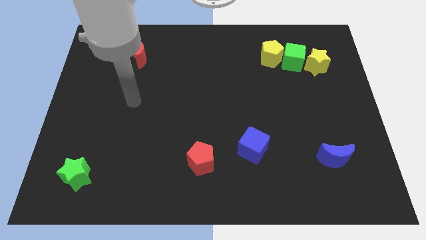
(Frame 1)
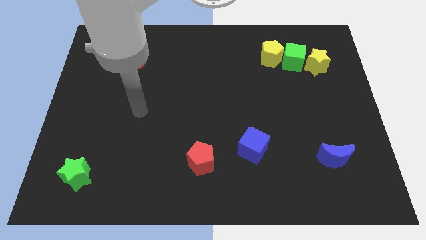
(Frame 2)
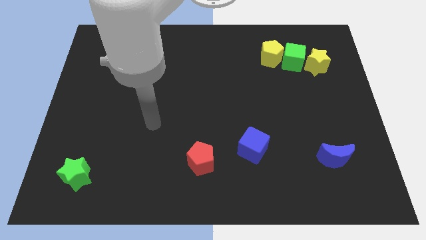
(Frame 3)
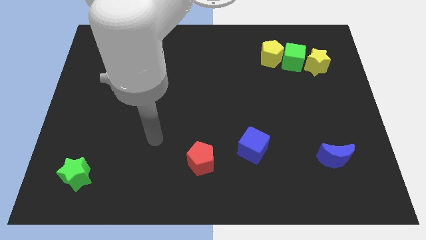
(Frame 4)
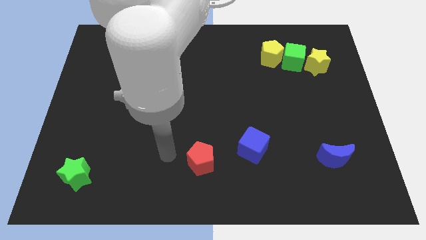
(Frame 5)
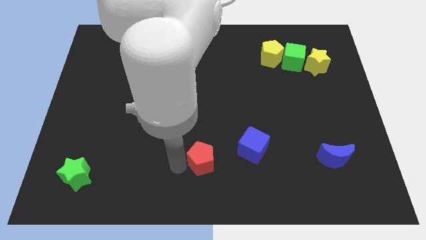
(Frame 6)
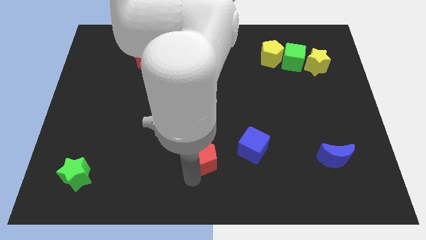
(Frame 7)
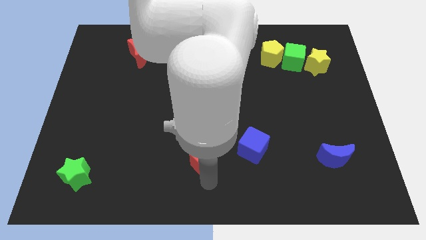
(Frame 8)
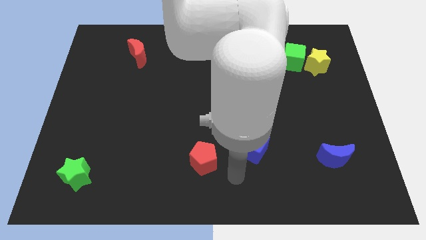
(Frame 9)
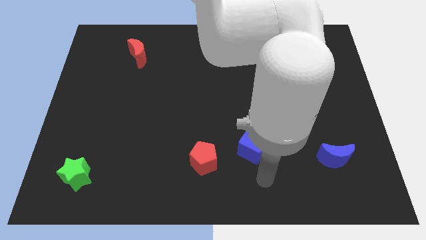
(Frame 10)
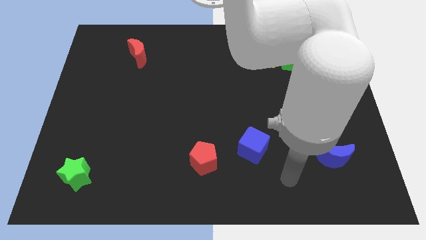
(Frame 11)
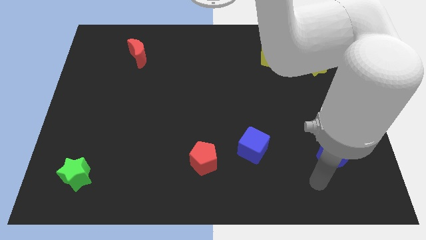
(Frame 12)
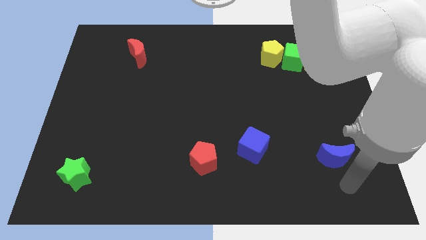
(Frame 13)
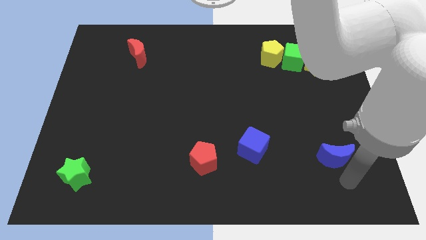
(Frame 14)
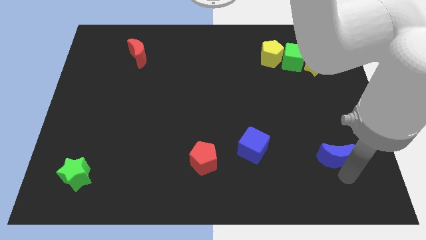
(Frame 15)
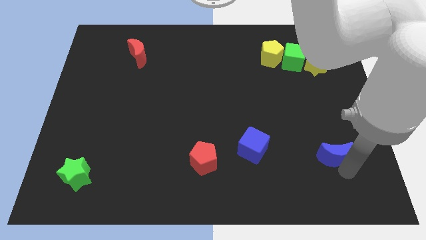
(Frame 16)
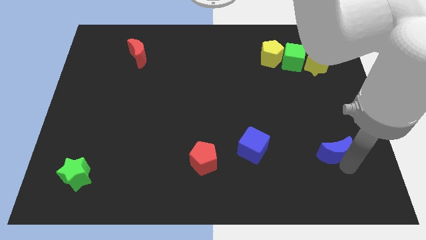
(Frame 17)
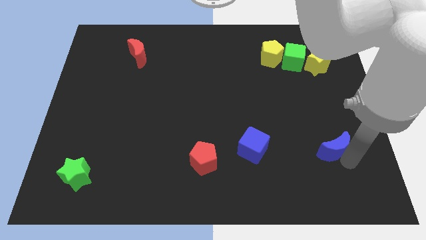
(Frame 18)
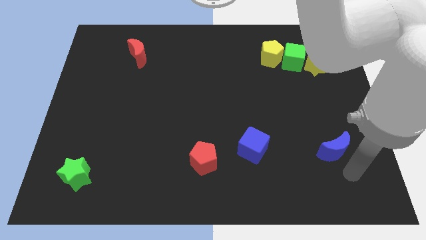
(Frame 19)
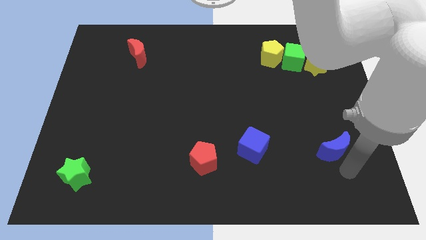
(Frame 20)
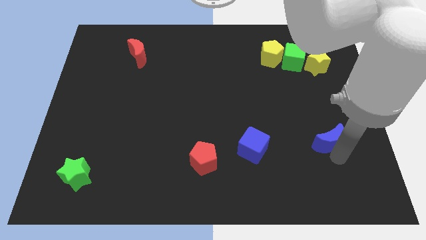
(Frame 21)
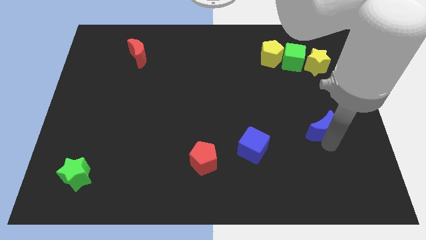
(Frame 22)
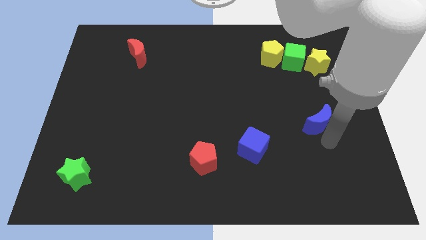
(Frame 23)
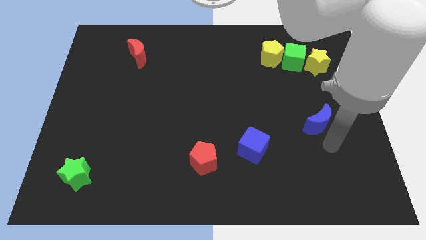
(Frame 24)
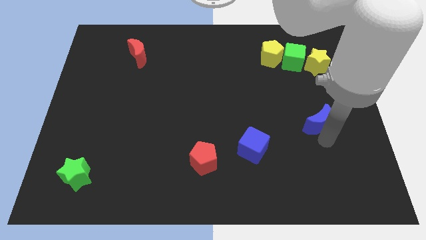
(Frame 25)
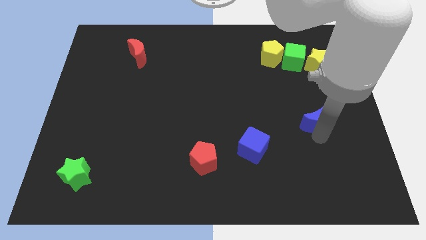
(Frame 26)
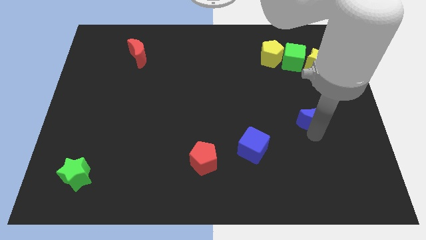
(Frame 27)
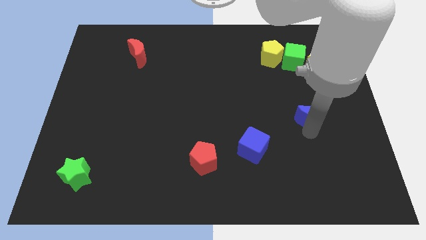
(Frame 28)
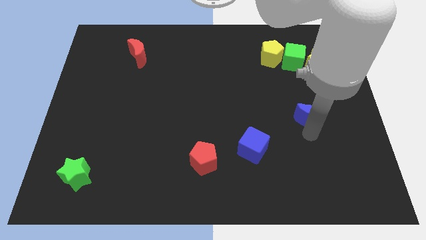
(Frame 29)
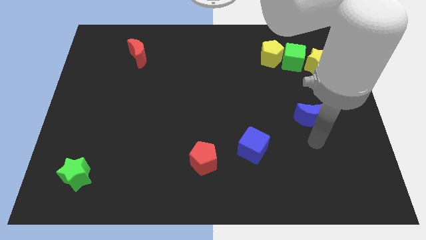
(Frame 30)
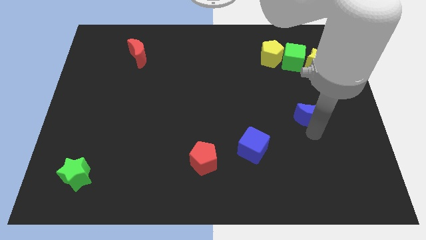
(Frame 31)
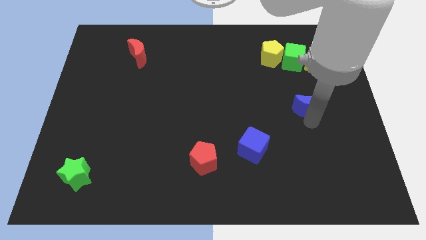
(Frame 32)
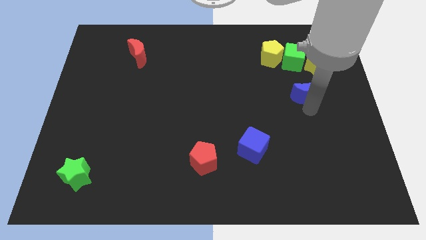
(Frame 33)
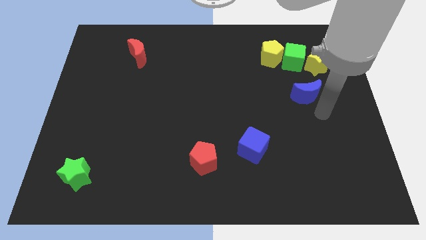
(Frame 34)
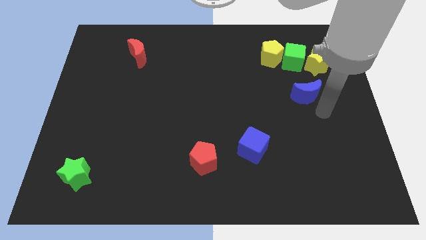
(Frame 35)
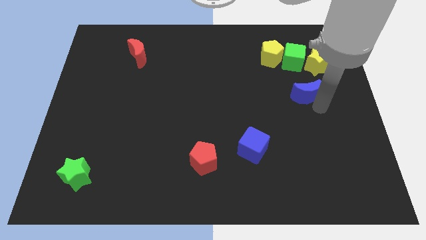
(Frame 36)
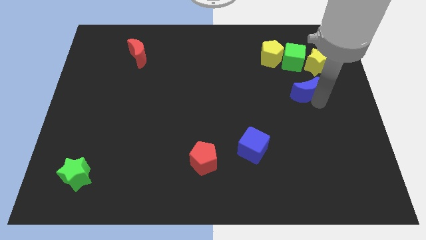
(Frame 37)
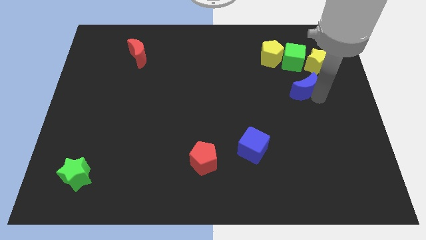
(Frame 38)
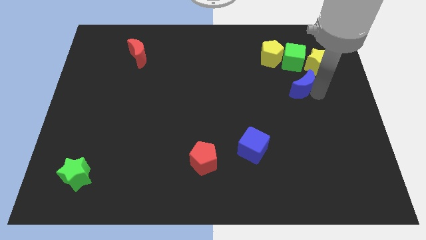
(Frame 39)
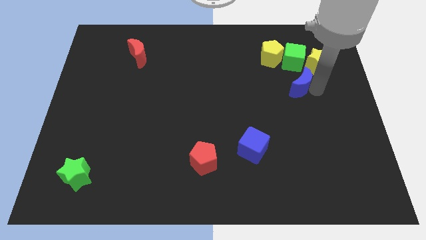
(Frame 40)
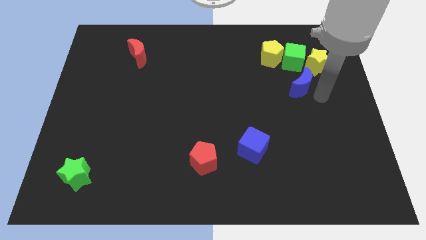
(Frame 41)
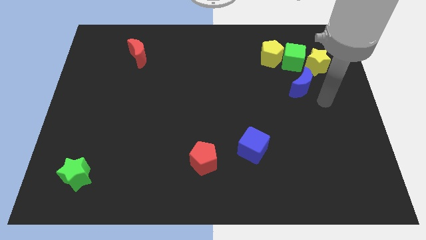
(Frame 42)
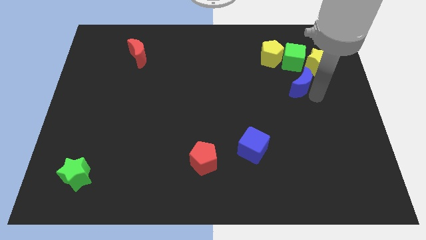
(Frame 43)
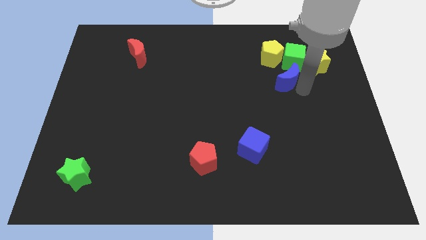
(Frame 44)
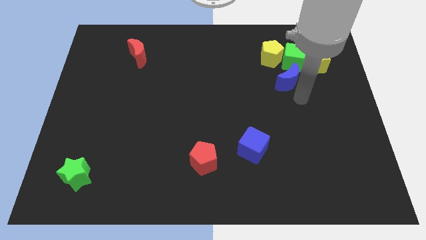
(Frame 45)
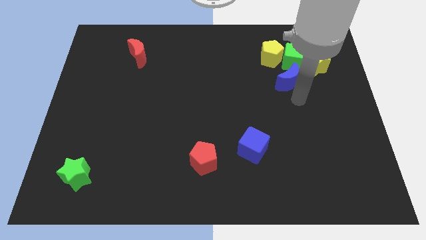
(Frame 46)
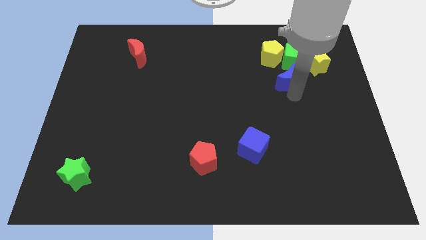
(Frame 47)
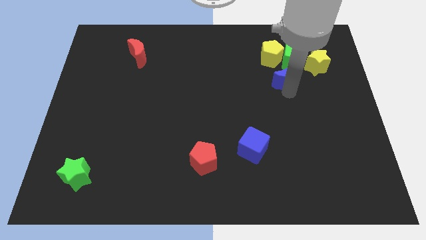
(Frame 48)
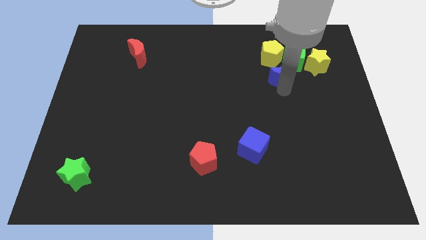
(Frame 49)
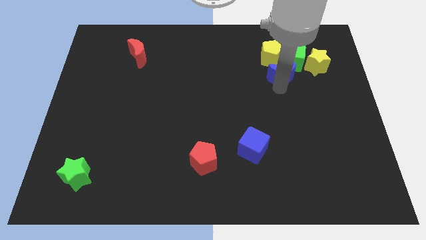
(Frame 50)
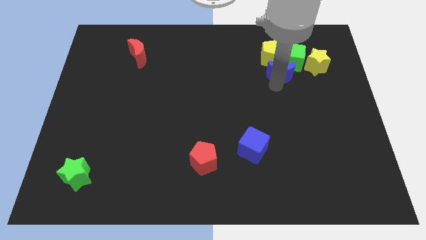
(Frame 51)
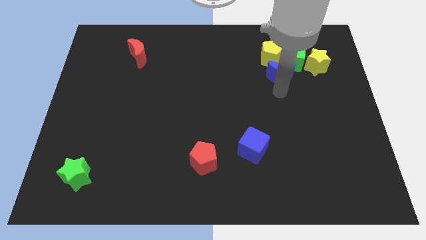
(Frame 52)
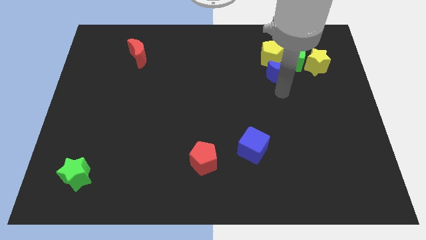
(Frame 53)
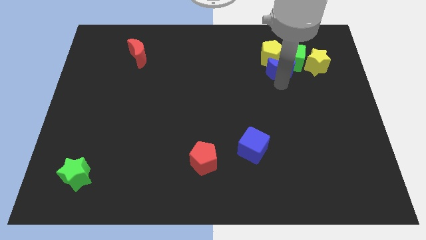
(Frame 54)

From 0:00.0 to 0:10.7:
slide the blue moon next to the yellow pentagon
